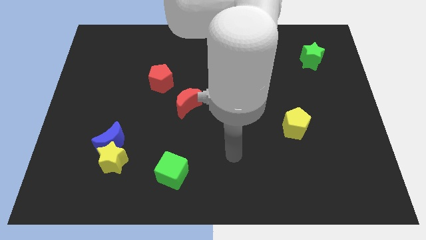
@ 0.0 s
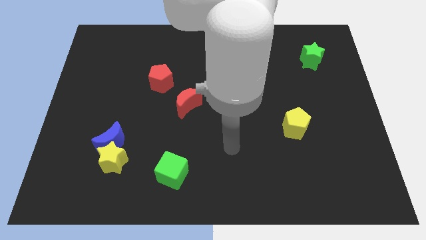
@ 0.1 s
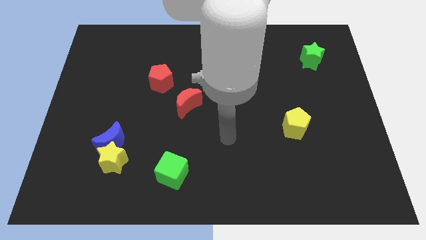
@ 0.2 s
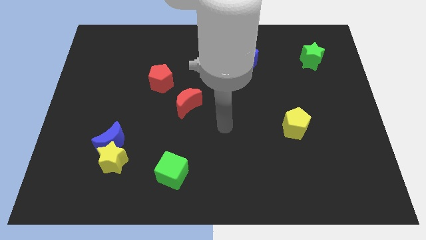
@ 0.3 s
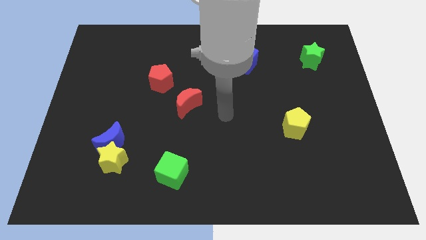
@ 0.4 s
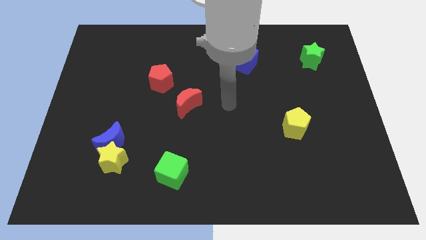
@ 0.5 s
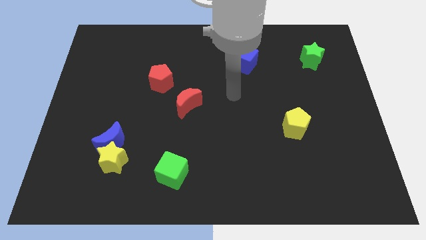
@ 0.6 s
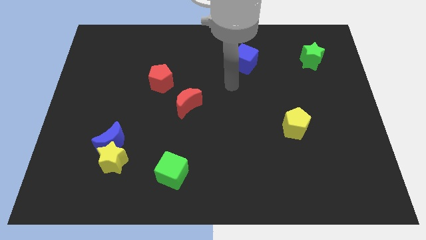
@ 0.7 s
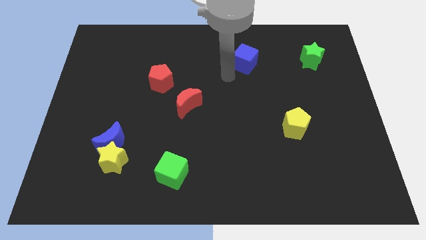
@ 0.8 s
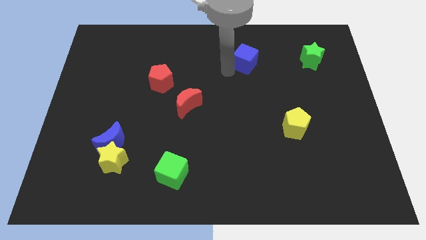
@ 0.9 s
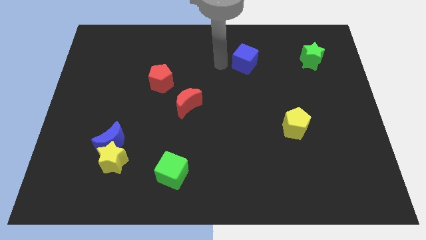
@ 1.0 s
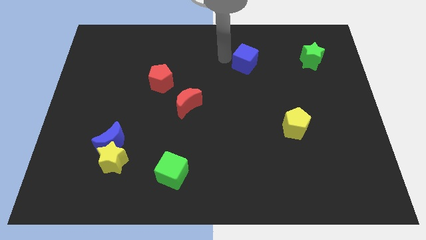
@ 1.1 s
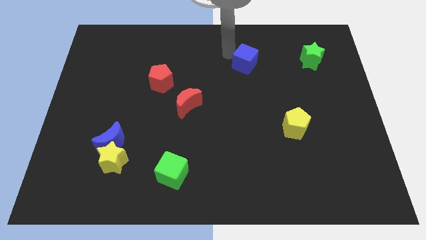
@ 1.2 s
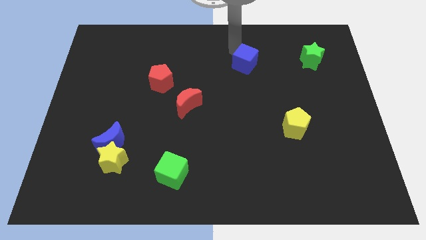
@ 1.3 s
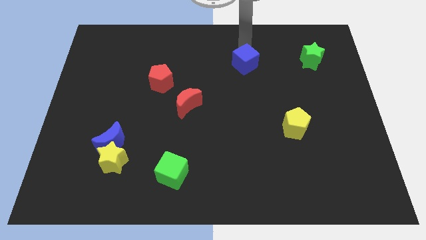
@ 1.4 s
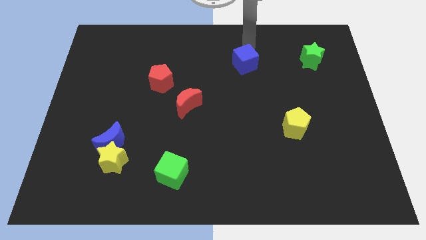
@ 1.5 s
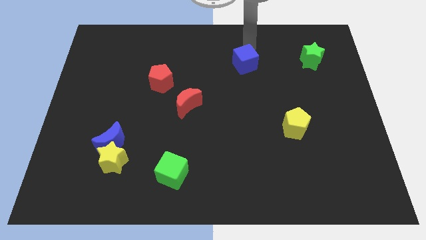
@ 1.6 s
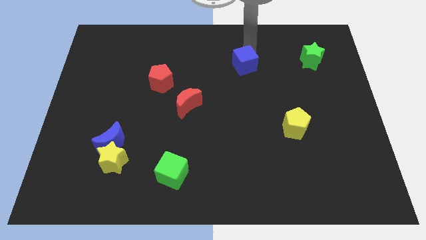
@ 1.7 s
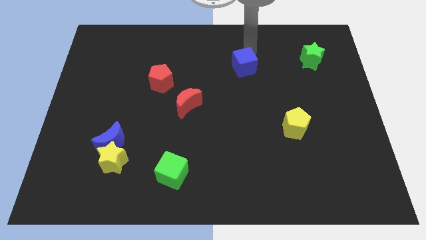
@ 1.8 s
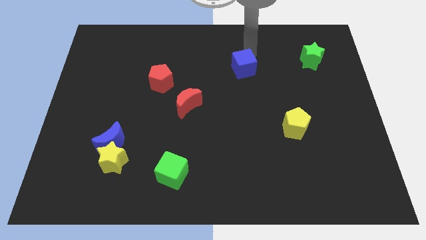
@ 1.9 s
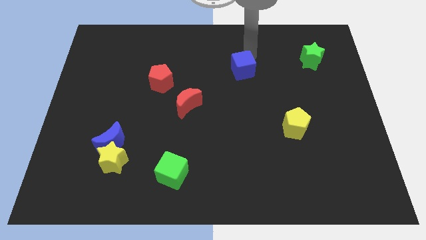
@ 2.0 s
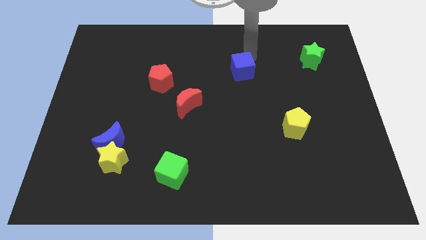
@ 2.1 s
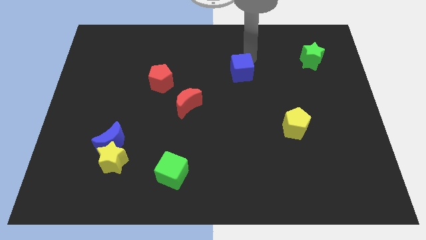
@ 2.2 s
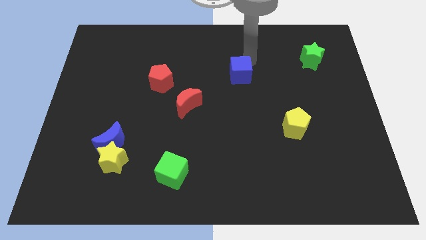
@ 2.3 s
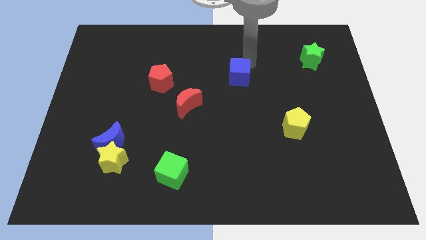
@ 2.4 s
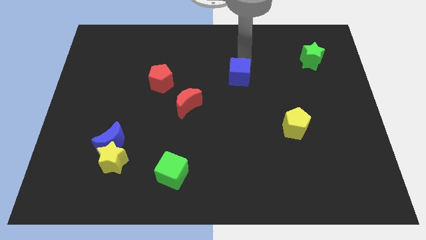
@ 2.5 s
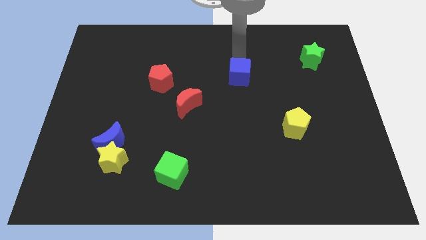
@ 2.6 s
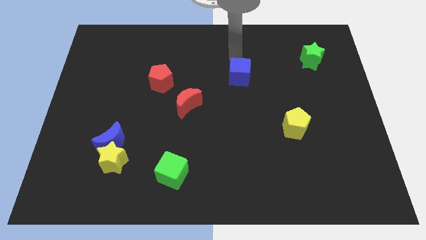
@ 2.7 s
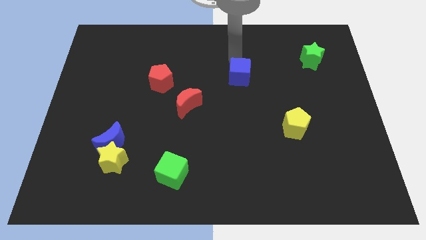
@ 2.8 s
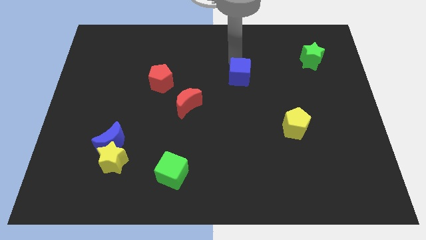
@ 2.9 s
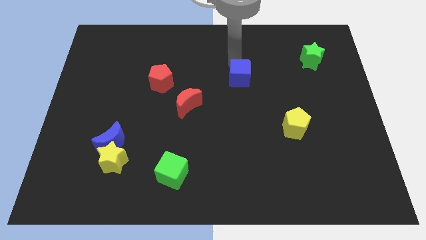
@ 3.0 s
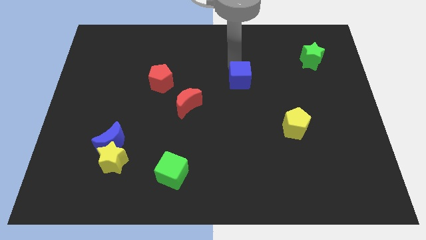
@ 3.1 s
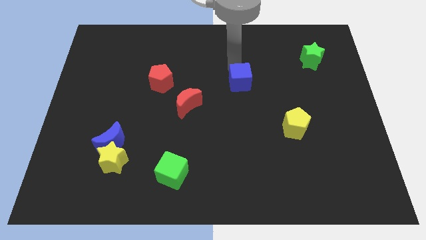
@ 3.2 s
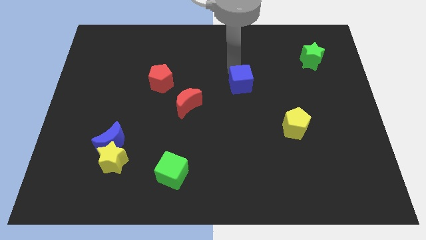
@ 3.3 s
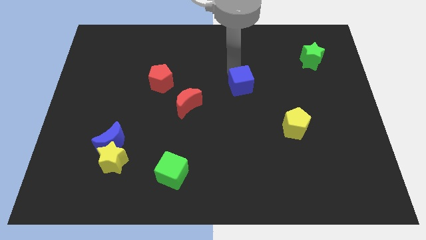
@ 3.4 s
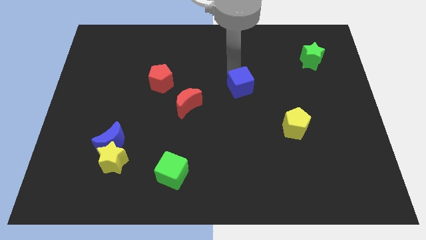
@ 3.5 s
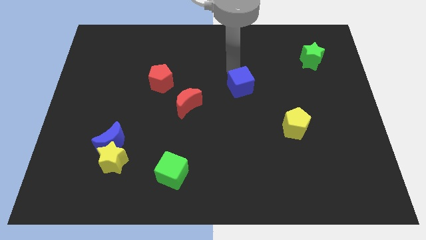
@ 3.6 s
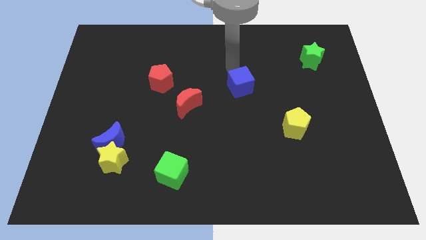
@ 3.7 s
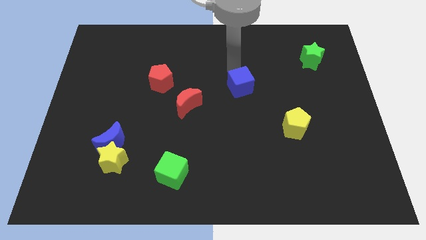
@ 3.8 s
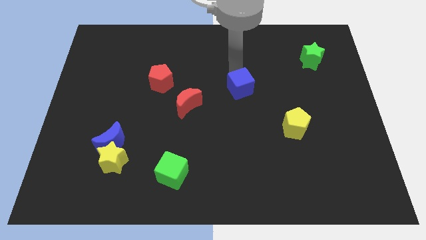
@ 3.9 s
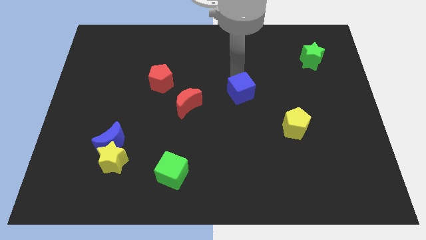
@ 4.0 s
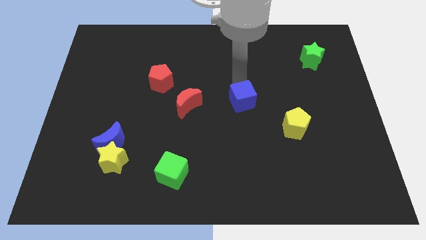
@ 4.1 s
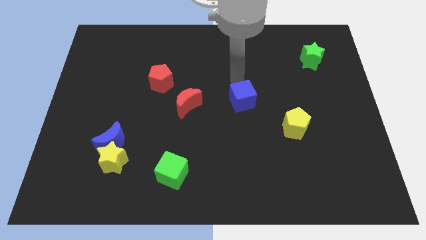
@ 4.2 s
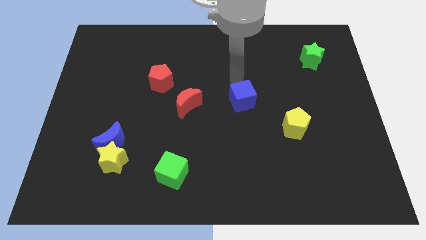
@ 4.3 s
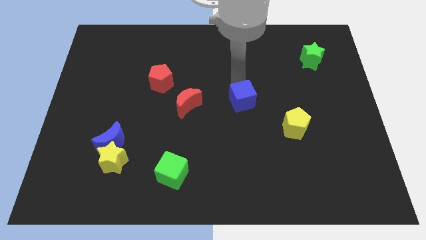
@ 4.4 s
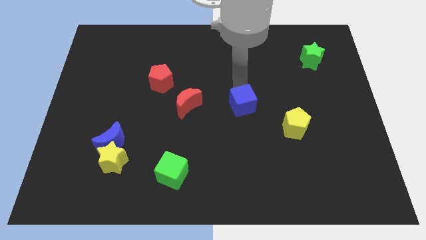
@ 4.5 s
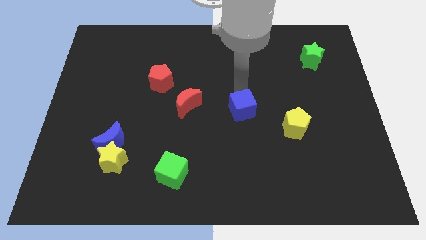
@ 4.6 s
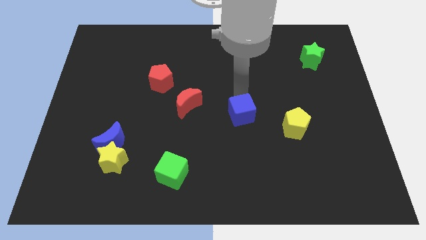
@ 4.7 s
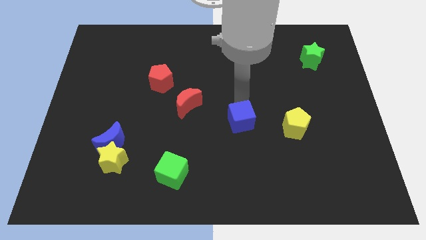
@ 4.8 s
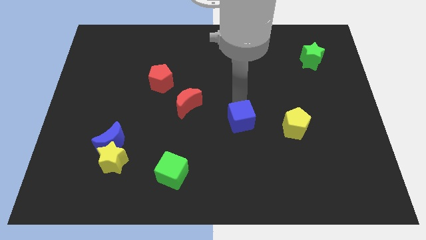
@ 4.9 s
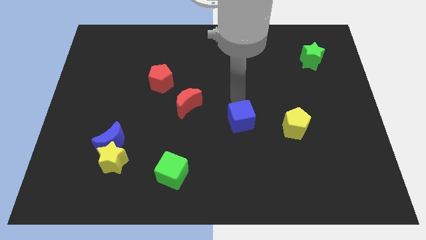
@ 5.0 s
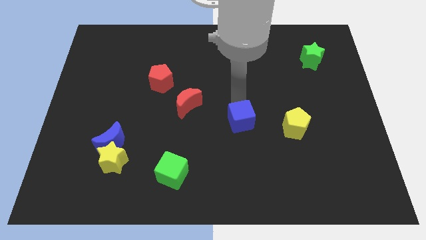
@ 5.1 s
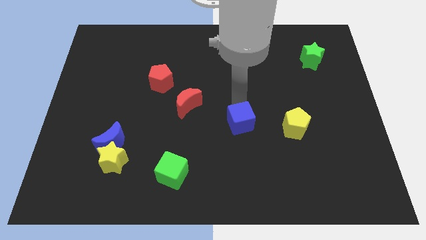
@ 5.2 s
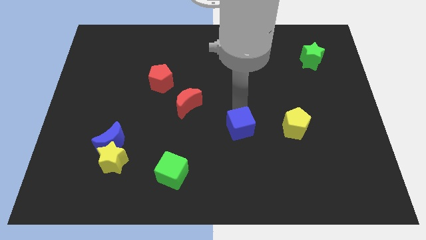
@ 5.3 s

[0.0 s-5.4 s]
move the blue cube downwards

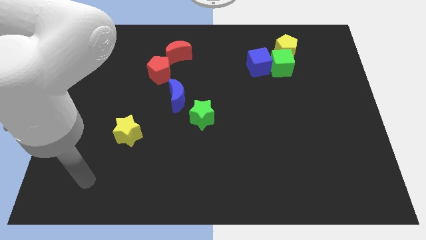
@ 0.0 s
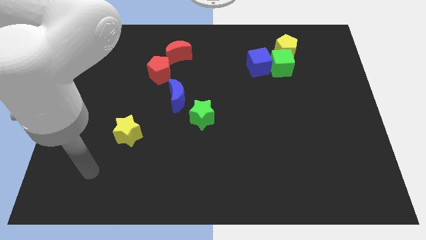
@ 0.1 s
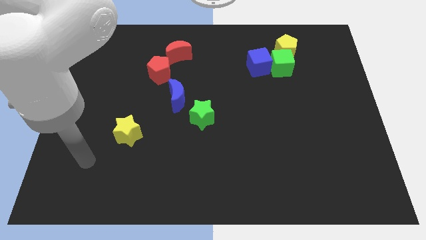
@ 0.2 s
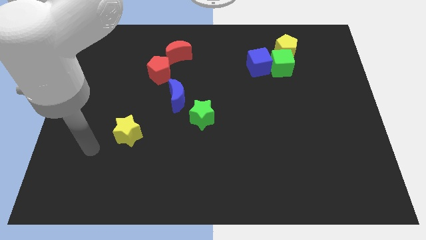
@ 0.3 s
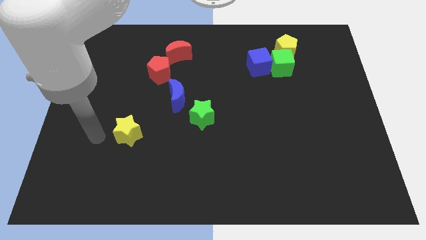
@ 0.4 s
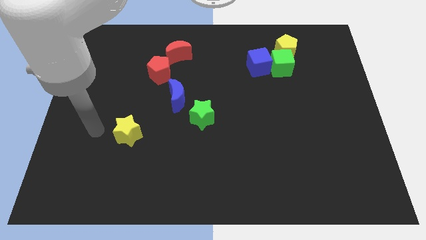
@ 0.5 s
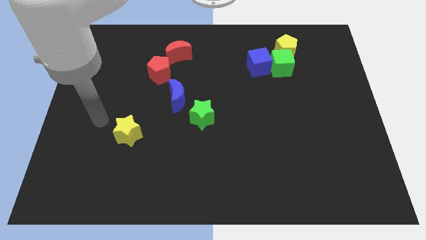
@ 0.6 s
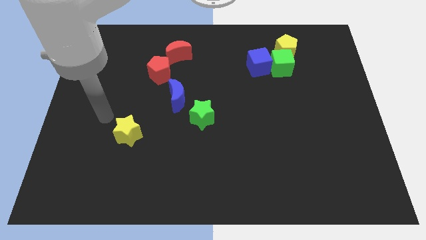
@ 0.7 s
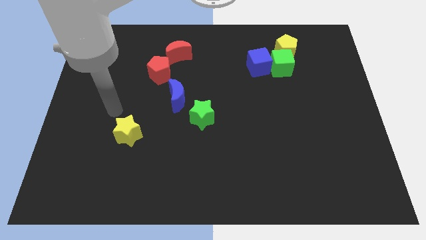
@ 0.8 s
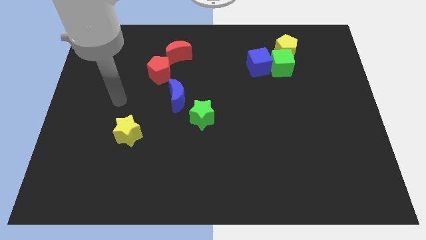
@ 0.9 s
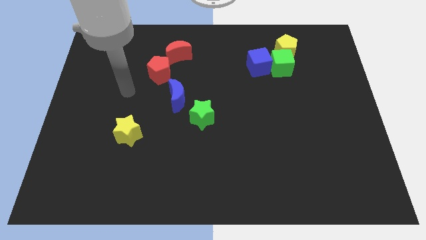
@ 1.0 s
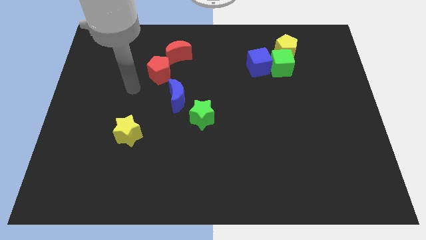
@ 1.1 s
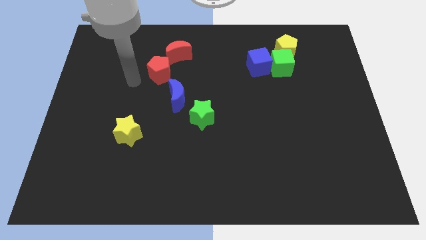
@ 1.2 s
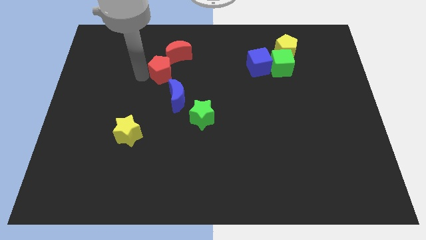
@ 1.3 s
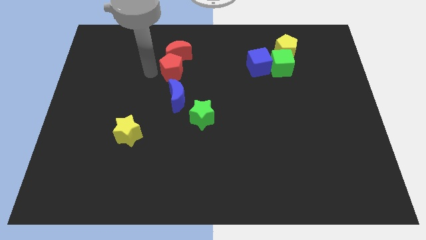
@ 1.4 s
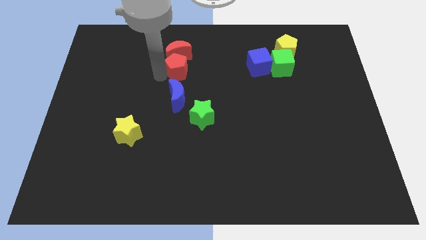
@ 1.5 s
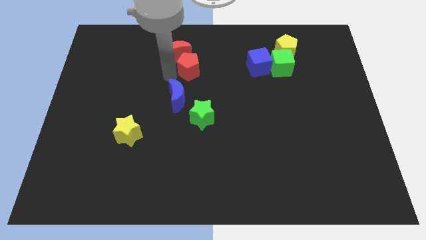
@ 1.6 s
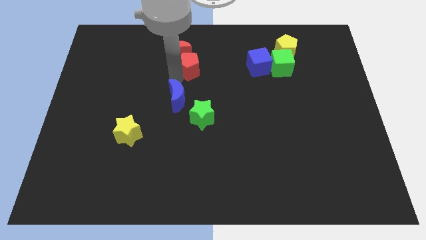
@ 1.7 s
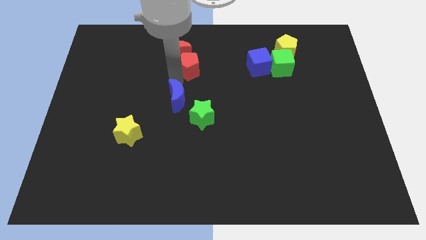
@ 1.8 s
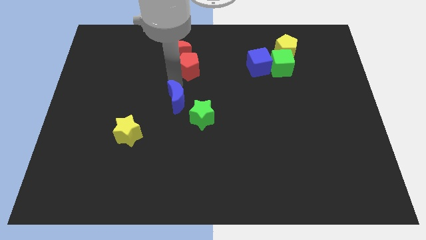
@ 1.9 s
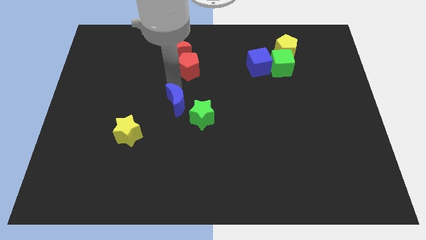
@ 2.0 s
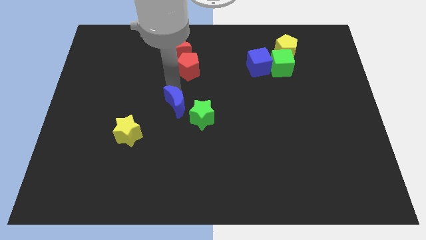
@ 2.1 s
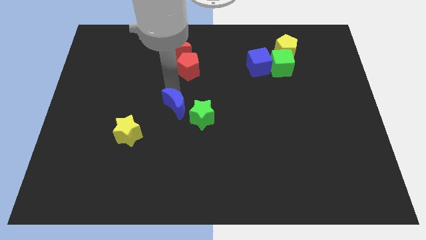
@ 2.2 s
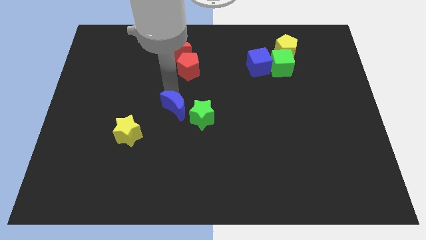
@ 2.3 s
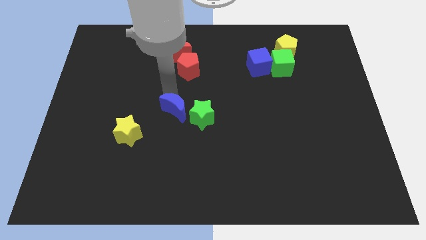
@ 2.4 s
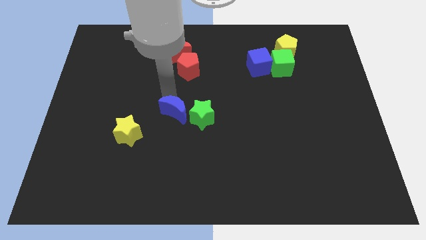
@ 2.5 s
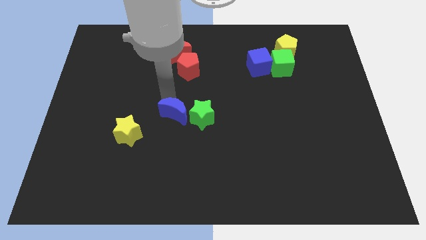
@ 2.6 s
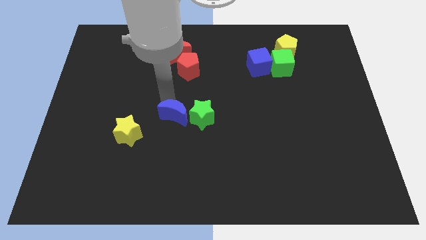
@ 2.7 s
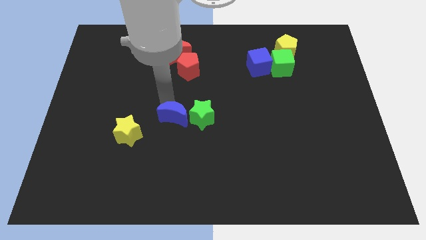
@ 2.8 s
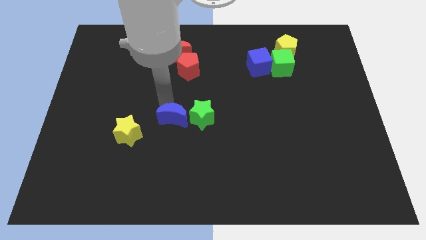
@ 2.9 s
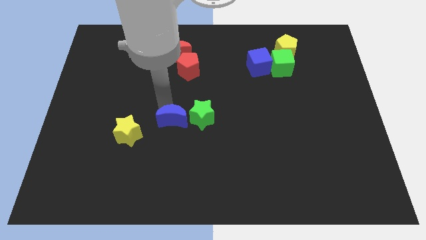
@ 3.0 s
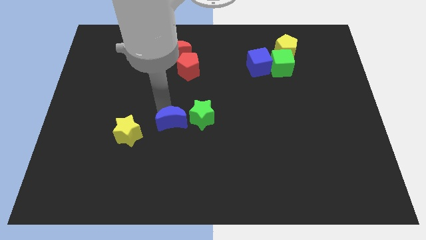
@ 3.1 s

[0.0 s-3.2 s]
slide the blue moon somewhat downwards
